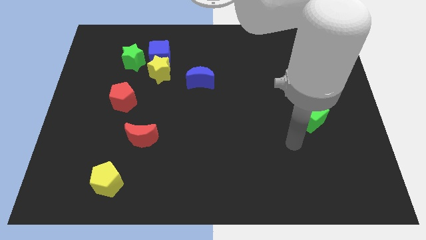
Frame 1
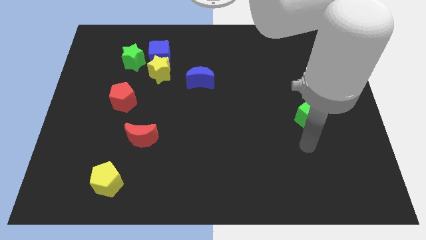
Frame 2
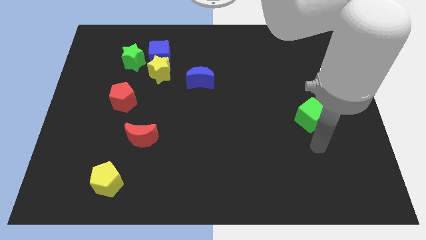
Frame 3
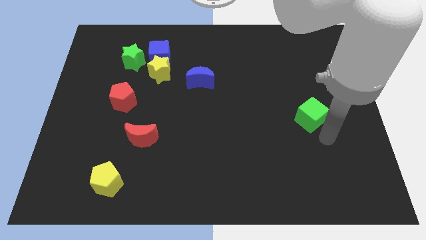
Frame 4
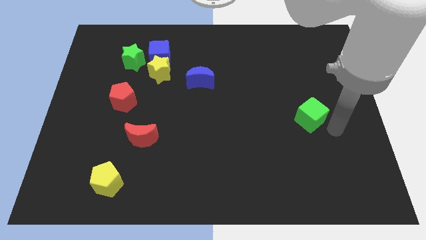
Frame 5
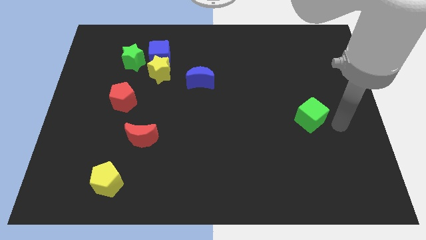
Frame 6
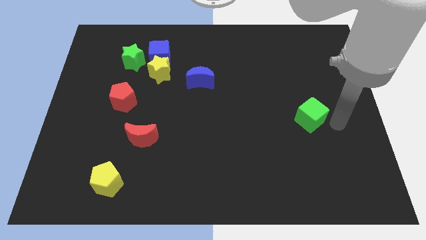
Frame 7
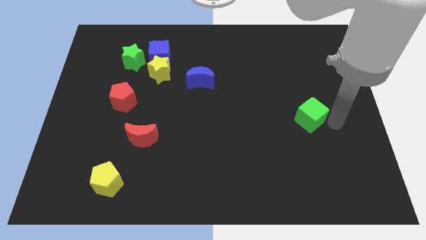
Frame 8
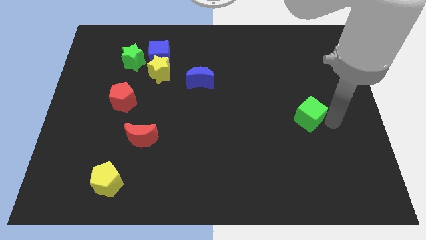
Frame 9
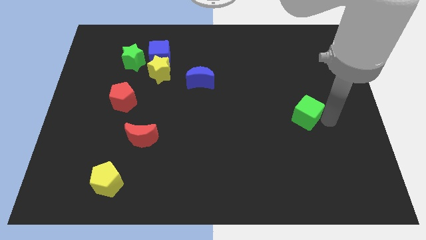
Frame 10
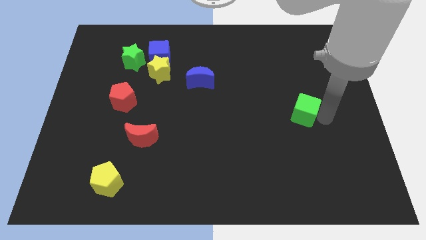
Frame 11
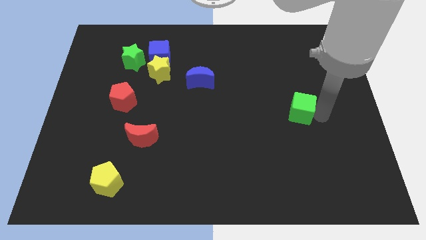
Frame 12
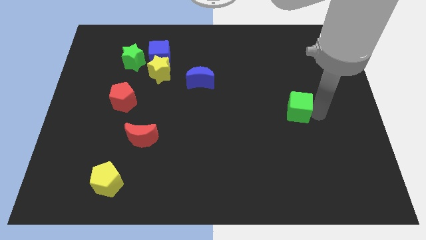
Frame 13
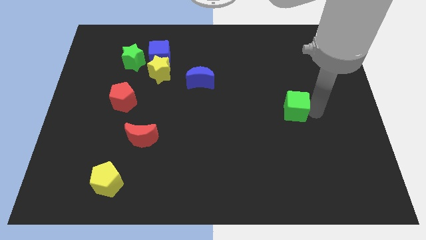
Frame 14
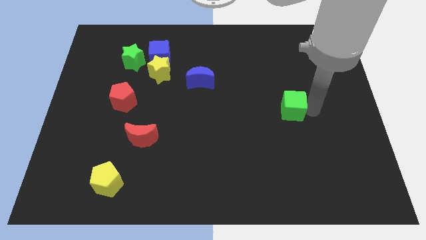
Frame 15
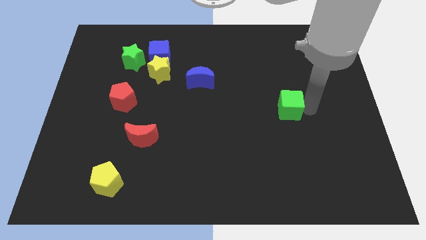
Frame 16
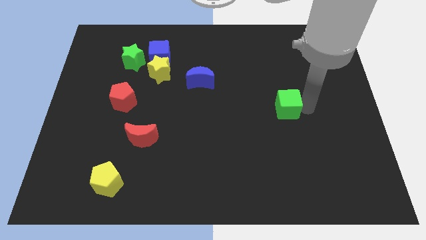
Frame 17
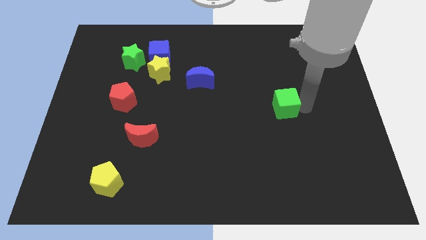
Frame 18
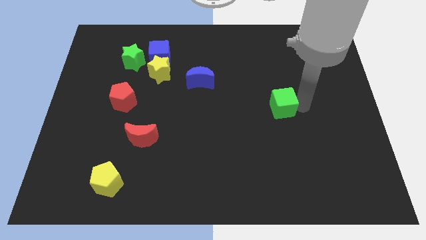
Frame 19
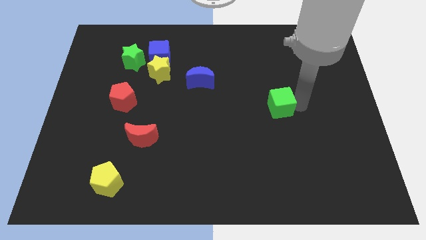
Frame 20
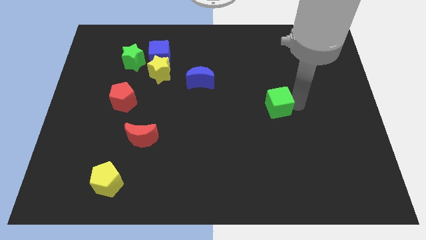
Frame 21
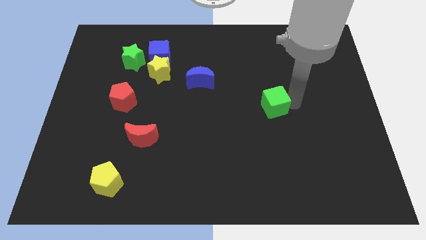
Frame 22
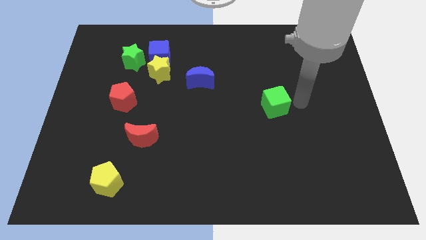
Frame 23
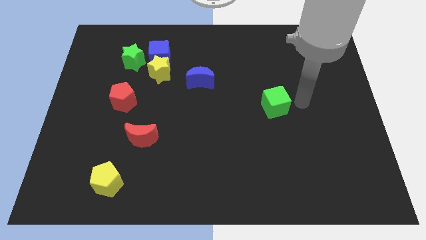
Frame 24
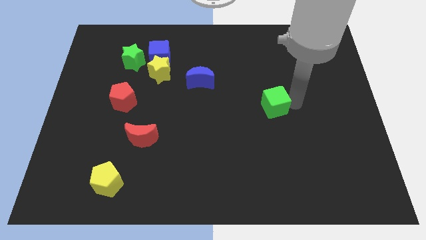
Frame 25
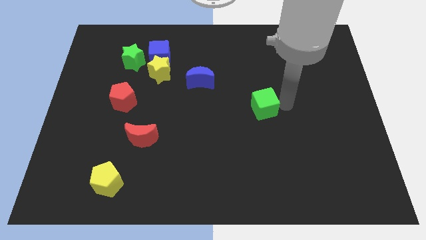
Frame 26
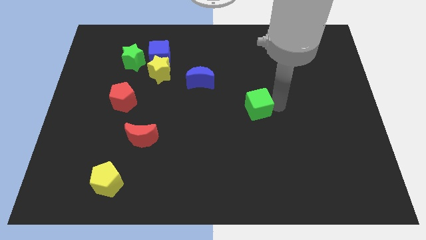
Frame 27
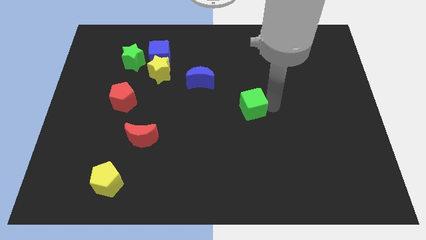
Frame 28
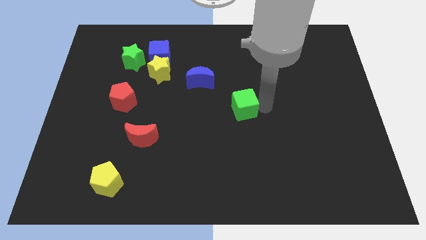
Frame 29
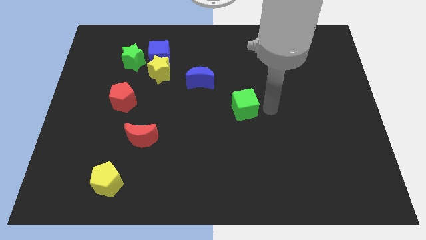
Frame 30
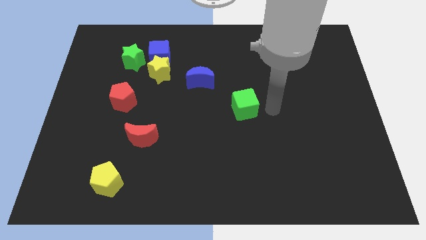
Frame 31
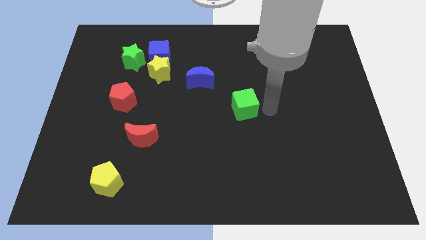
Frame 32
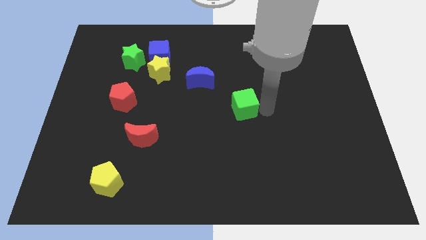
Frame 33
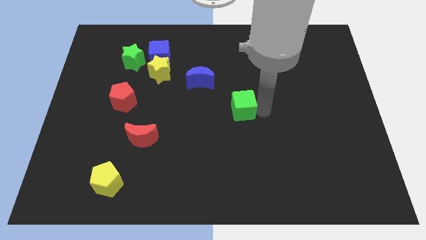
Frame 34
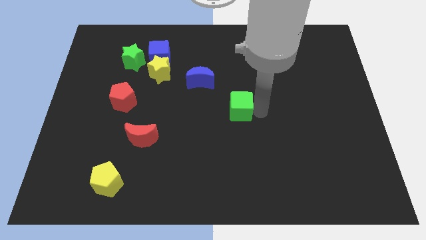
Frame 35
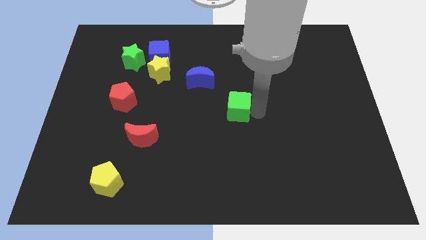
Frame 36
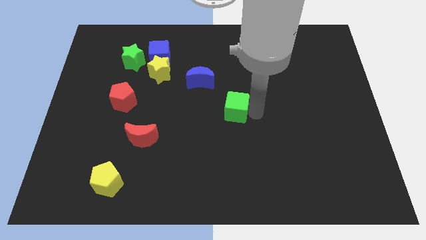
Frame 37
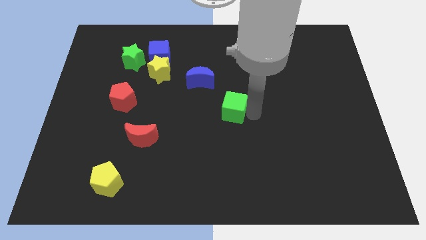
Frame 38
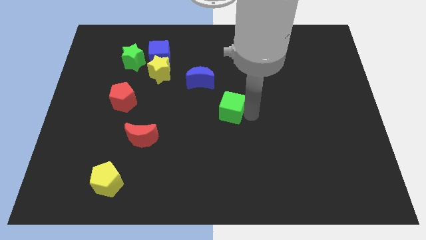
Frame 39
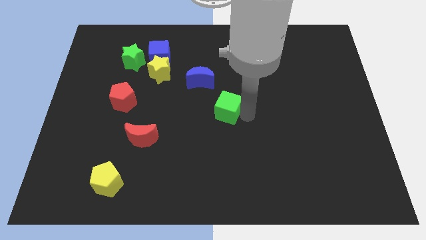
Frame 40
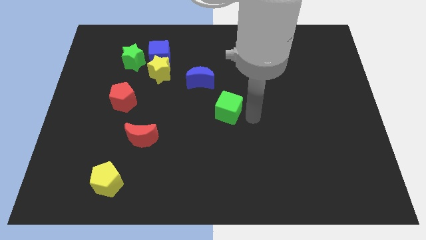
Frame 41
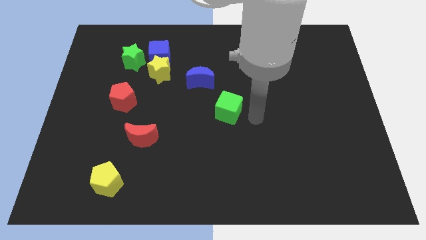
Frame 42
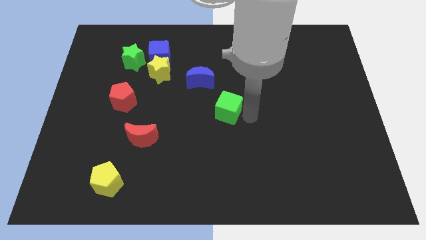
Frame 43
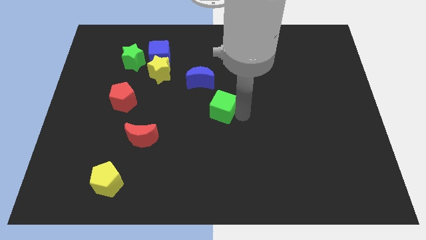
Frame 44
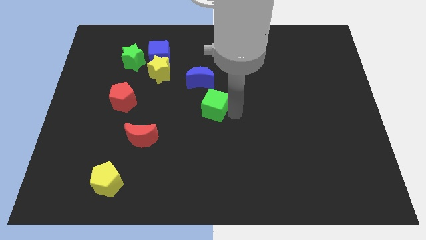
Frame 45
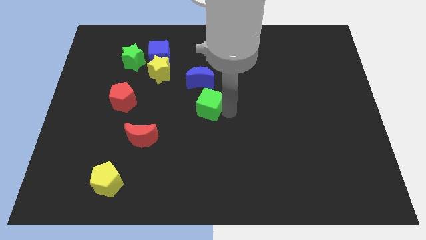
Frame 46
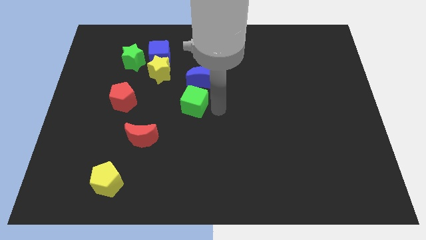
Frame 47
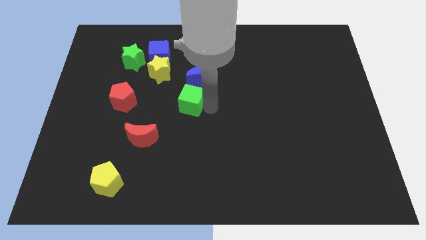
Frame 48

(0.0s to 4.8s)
slide the green cube to the right of the red pentagon

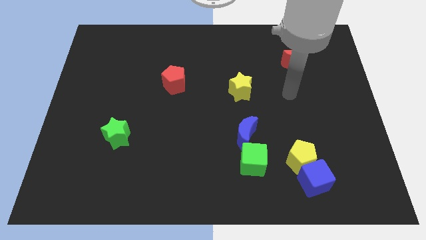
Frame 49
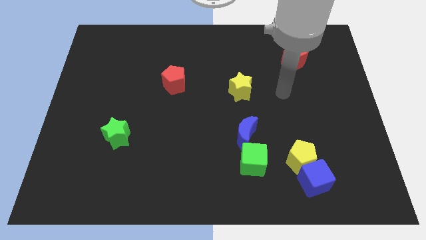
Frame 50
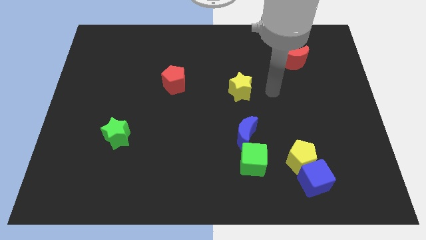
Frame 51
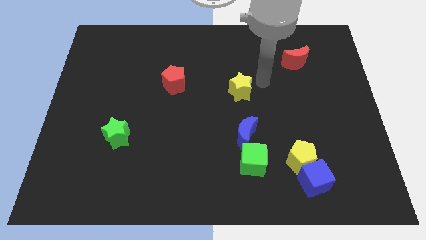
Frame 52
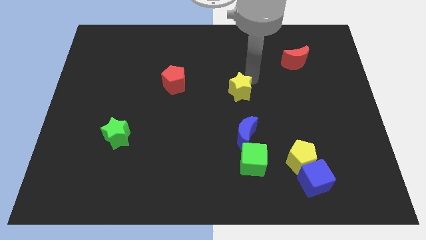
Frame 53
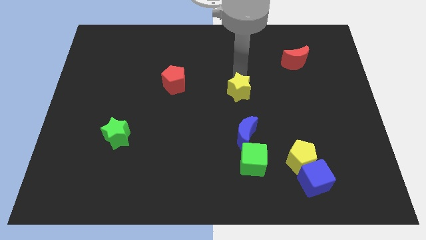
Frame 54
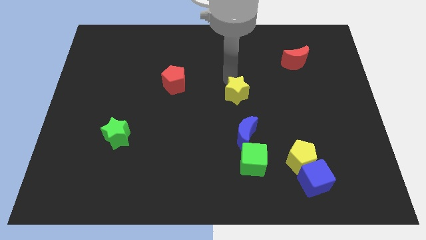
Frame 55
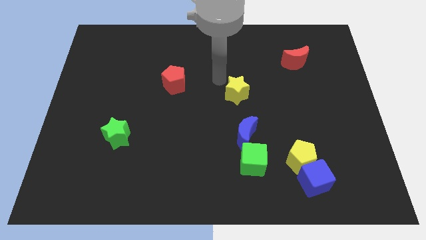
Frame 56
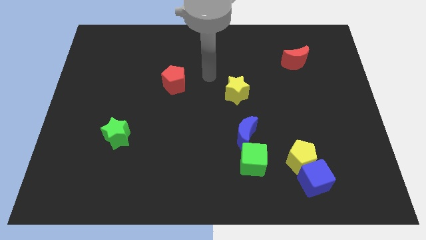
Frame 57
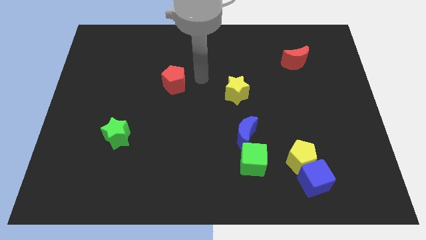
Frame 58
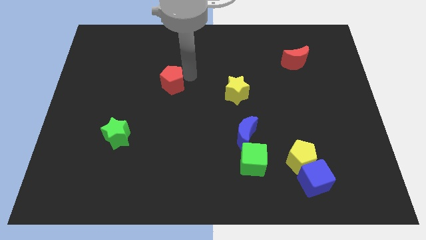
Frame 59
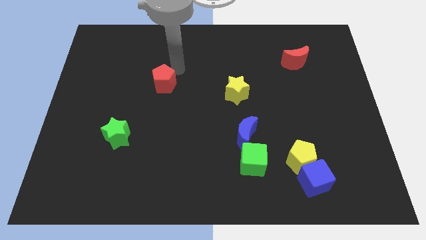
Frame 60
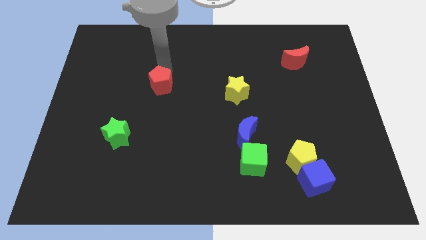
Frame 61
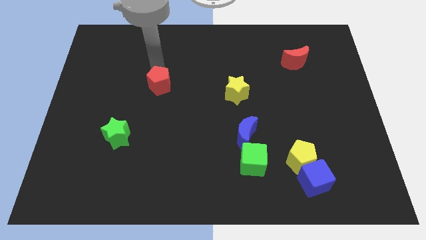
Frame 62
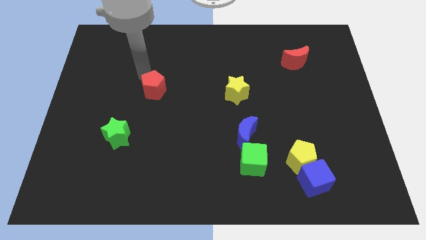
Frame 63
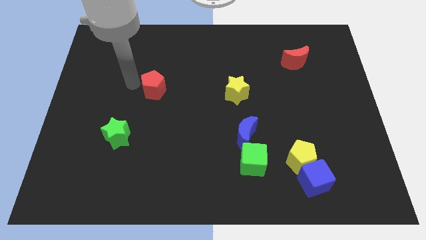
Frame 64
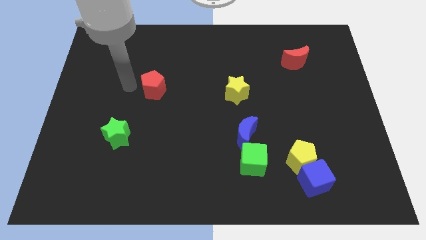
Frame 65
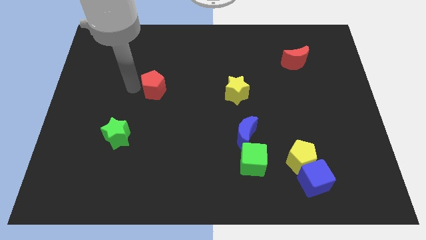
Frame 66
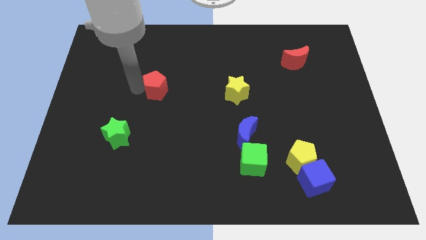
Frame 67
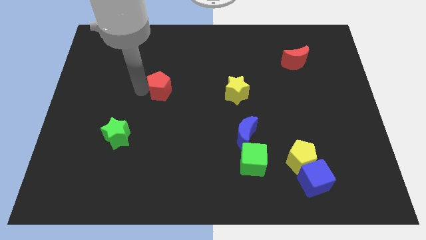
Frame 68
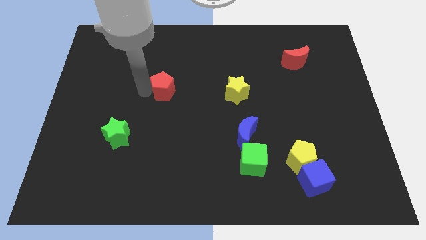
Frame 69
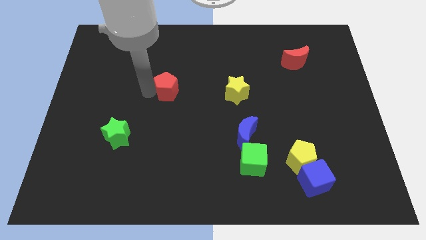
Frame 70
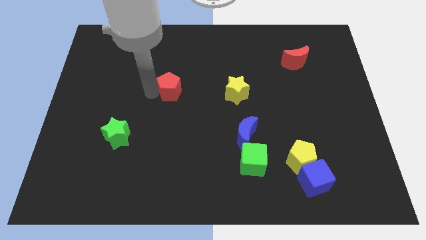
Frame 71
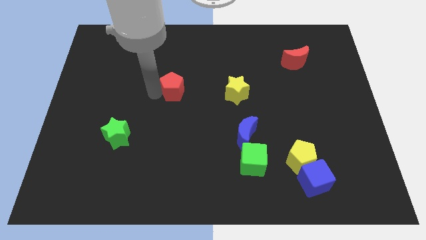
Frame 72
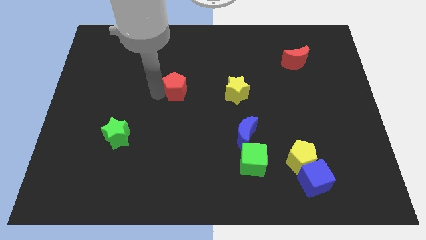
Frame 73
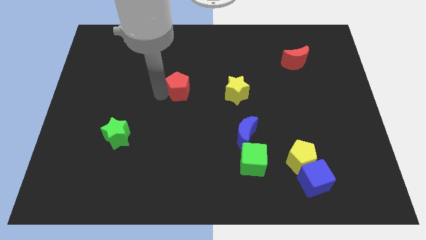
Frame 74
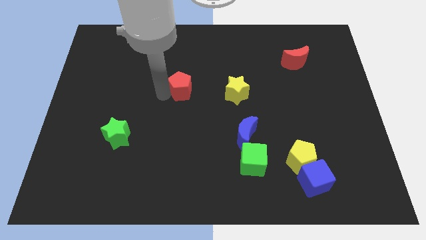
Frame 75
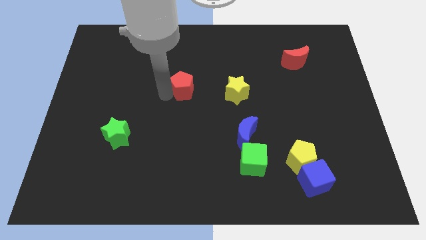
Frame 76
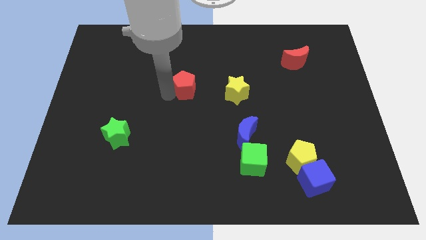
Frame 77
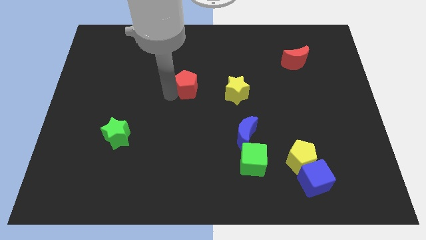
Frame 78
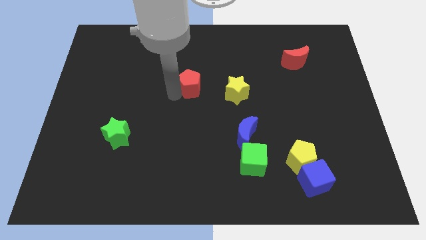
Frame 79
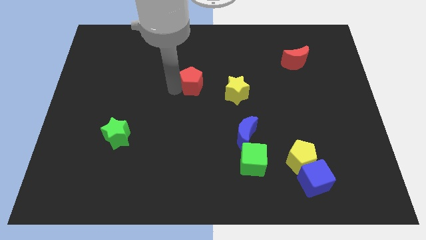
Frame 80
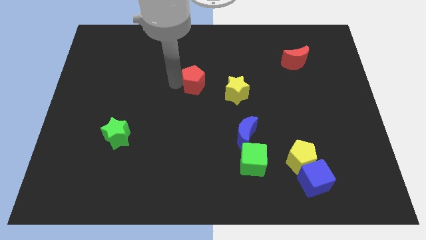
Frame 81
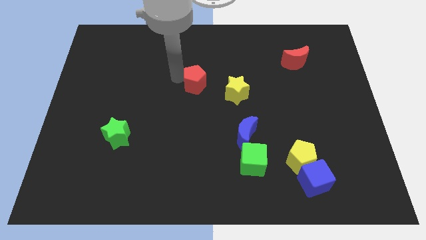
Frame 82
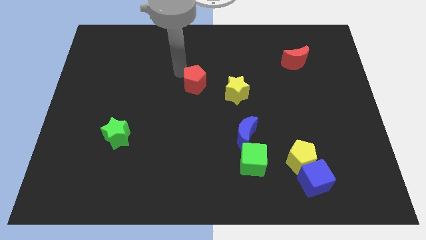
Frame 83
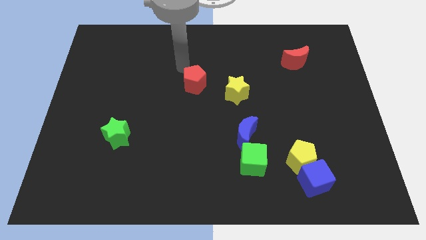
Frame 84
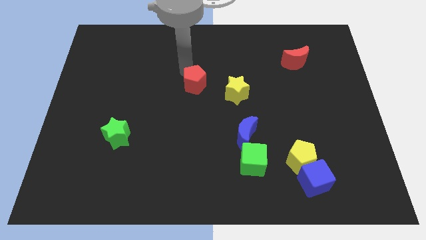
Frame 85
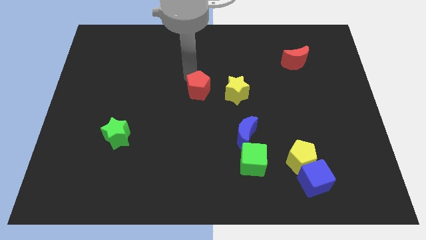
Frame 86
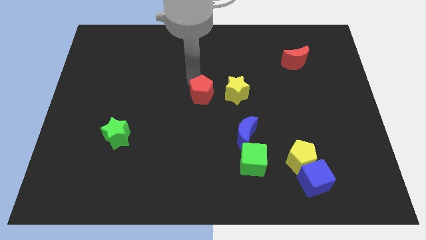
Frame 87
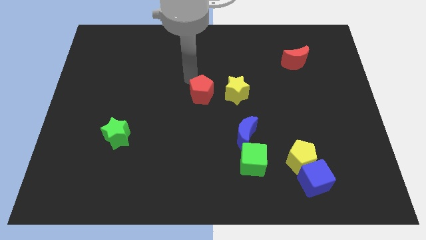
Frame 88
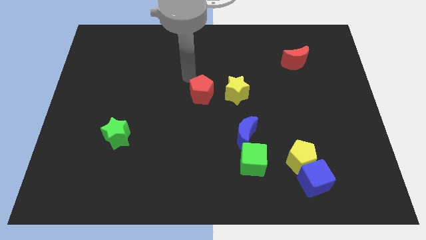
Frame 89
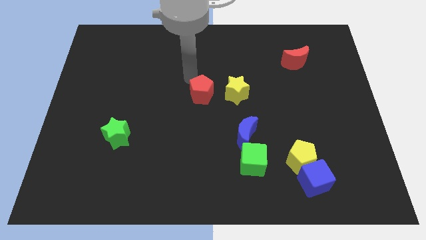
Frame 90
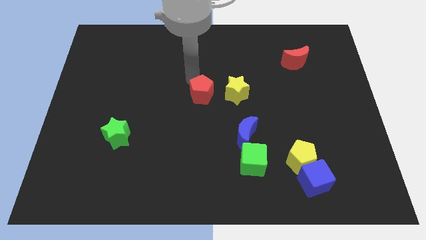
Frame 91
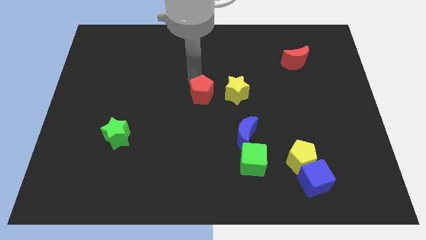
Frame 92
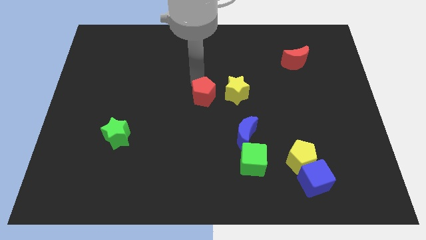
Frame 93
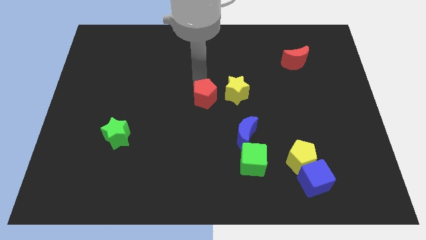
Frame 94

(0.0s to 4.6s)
put the red pentagon to the bottom left side of the yellow star
